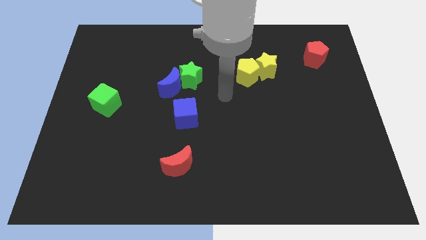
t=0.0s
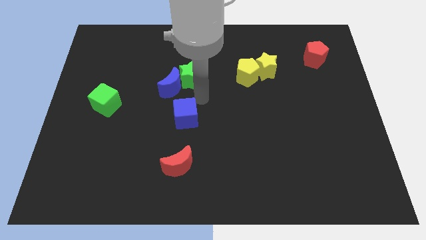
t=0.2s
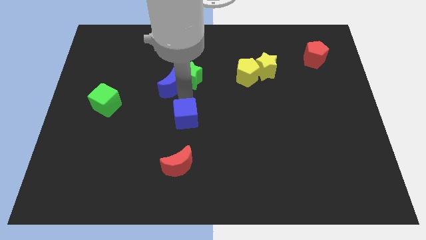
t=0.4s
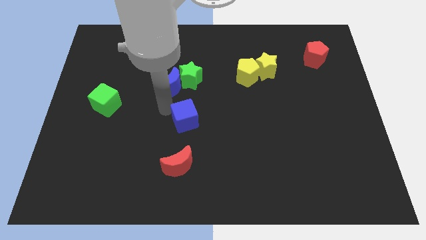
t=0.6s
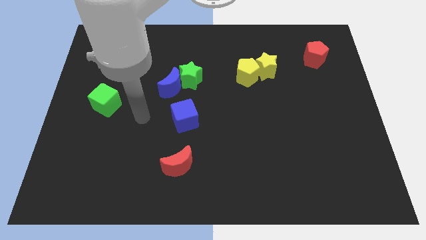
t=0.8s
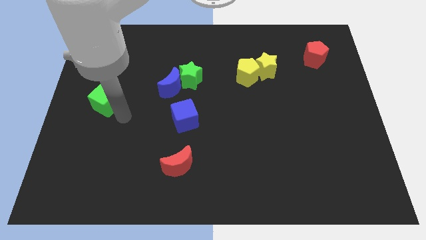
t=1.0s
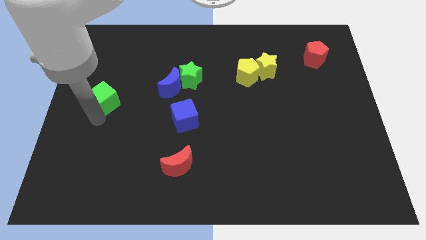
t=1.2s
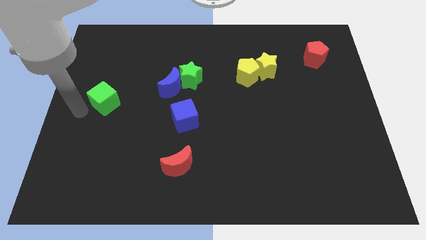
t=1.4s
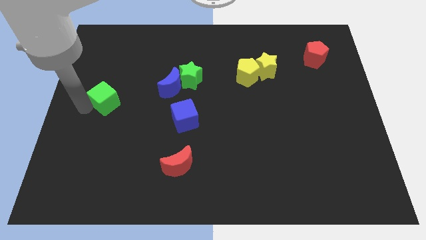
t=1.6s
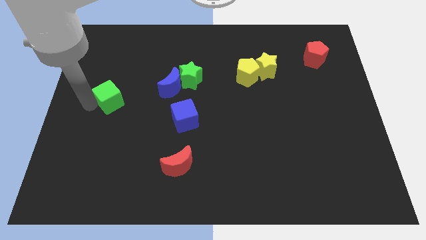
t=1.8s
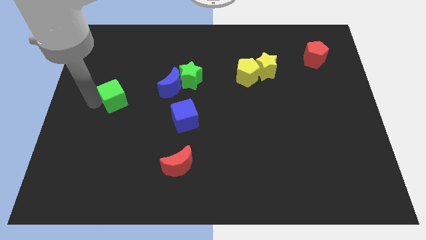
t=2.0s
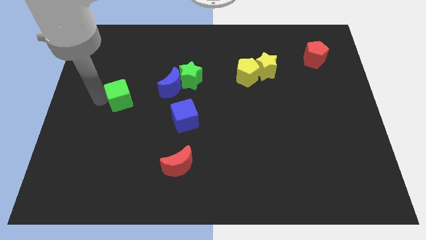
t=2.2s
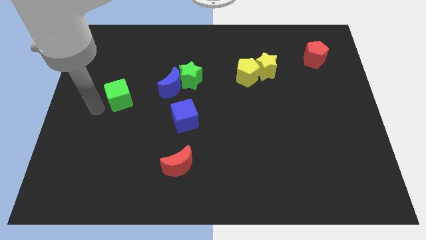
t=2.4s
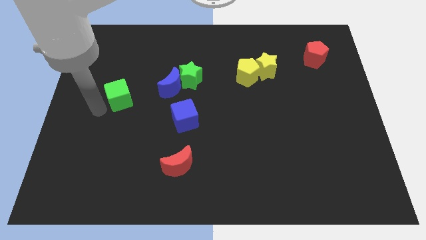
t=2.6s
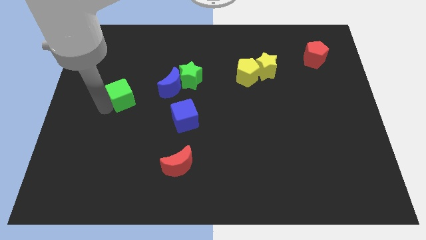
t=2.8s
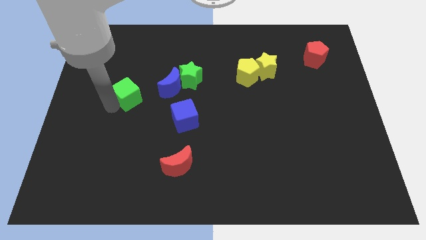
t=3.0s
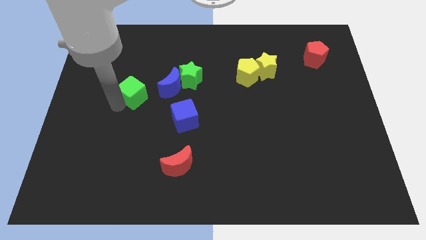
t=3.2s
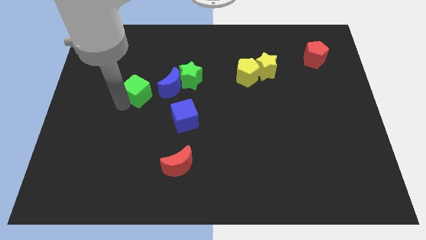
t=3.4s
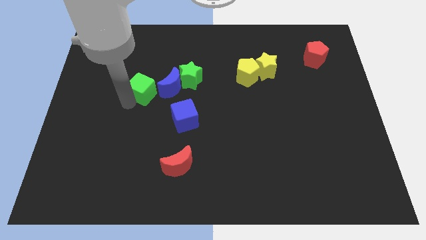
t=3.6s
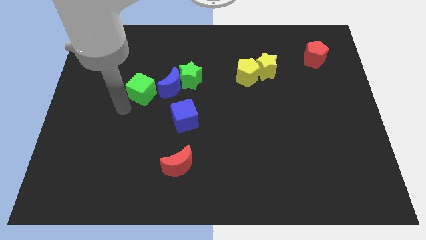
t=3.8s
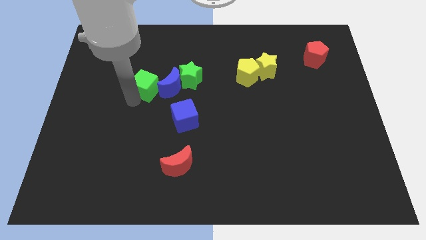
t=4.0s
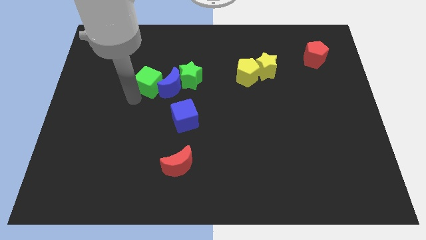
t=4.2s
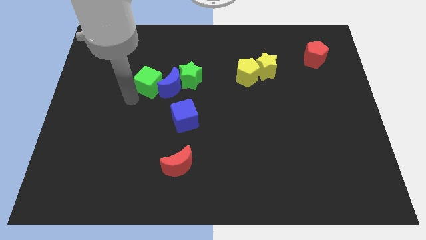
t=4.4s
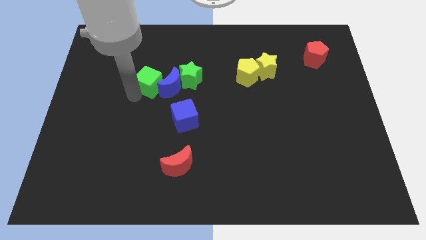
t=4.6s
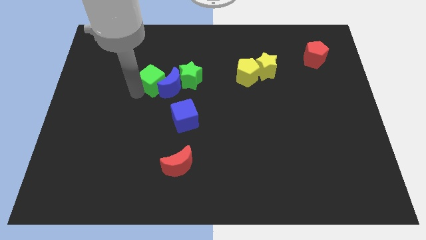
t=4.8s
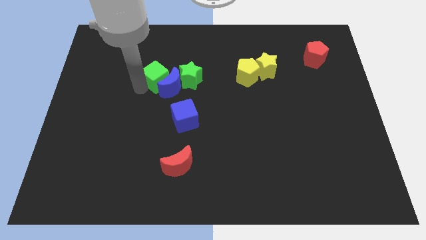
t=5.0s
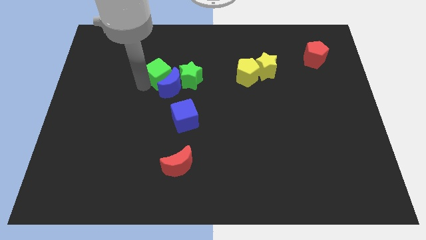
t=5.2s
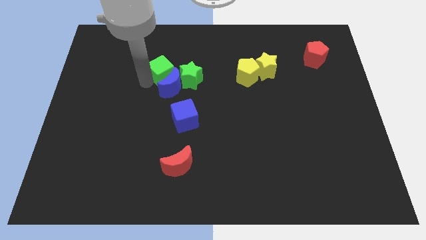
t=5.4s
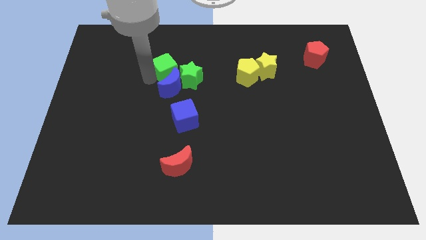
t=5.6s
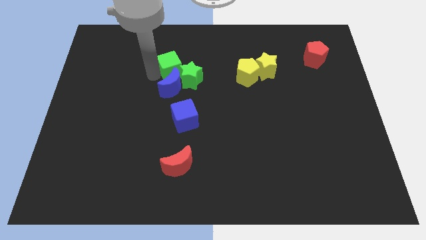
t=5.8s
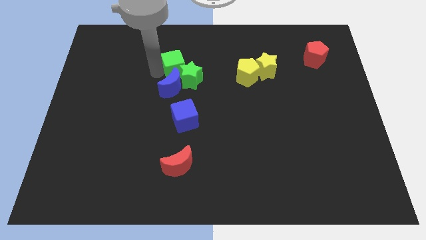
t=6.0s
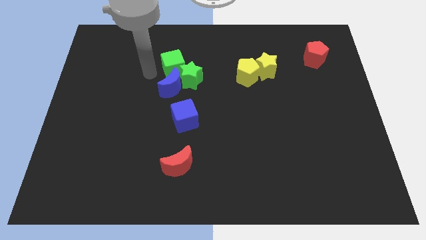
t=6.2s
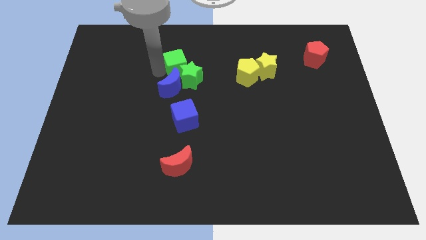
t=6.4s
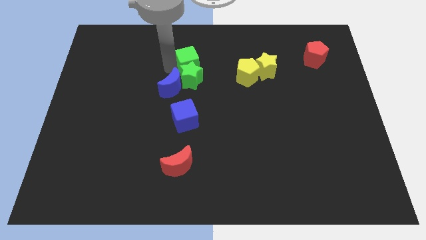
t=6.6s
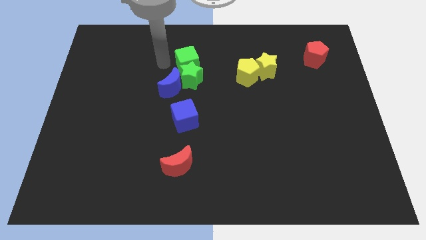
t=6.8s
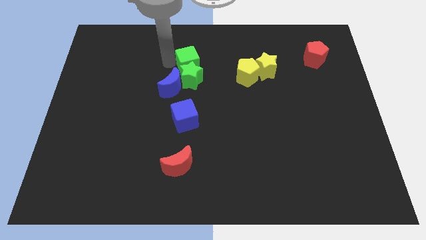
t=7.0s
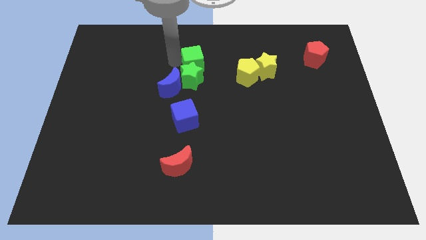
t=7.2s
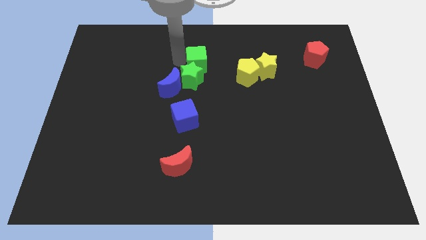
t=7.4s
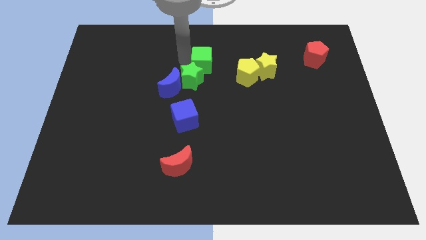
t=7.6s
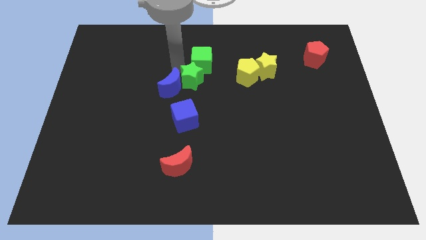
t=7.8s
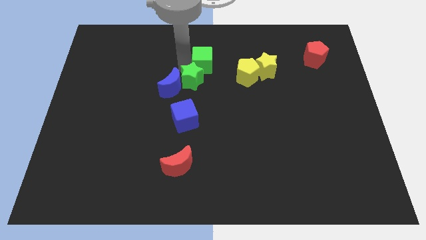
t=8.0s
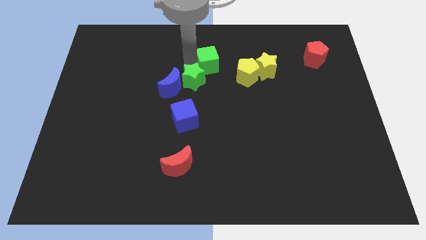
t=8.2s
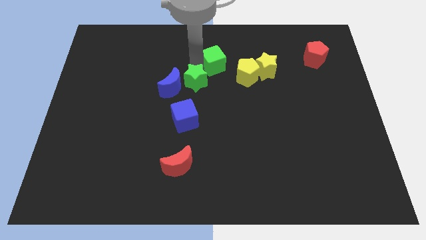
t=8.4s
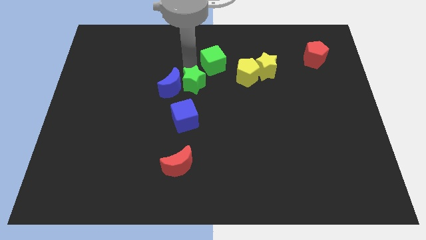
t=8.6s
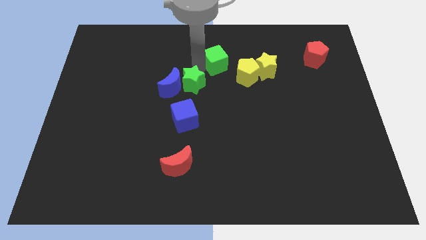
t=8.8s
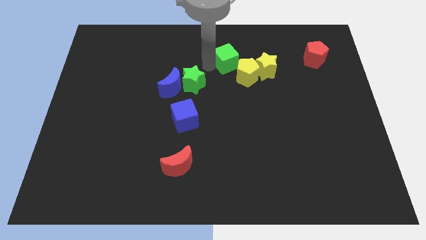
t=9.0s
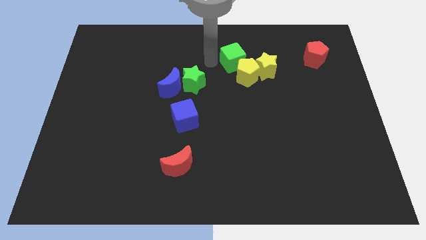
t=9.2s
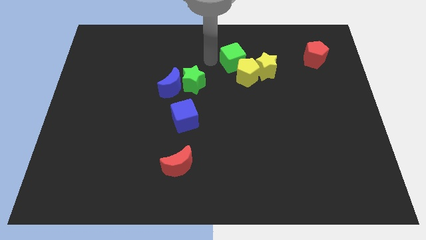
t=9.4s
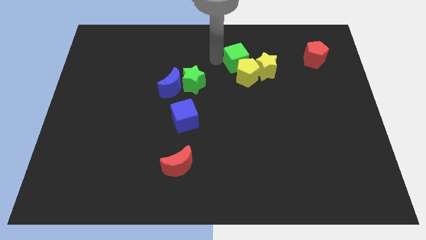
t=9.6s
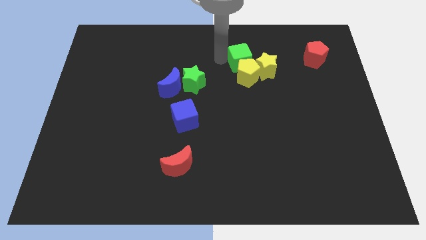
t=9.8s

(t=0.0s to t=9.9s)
push the green cube to the top right side of the yellow pentagon

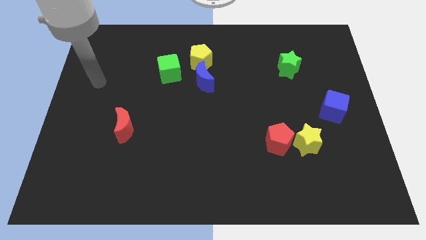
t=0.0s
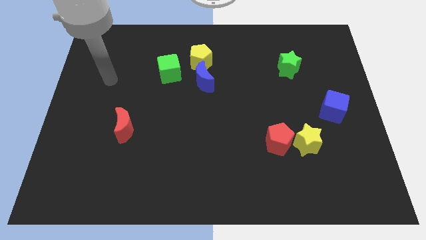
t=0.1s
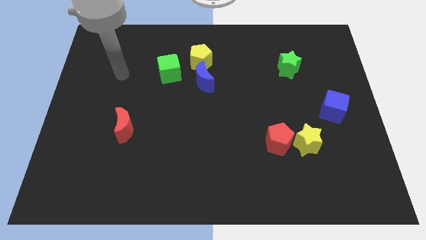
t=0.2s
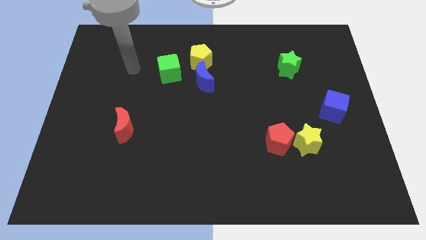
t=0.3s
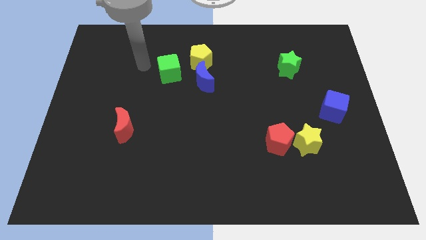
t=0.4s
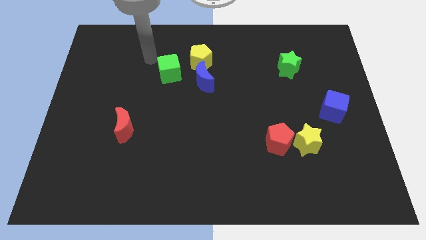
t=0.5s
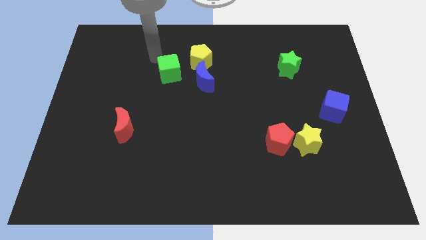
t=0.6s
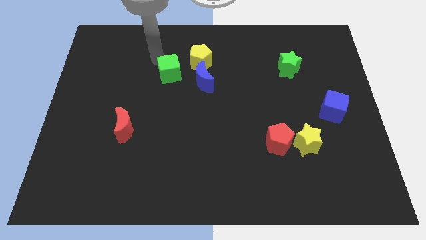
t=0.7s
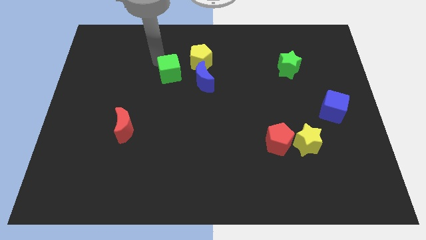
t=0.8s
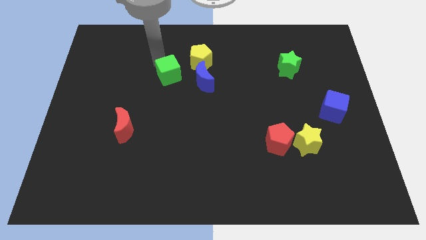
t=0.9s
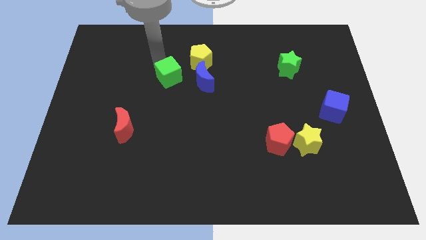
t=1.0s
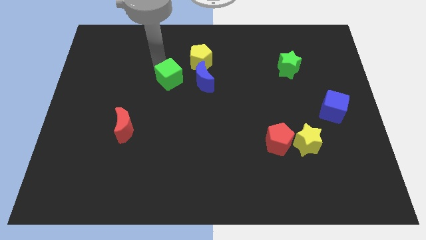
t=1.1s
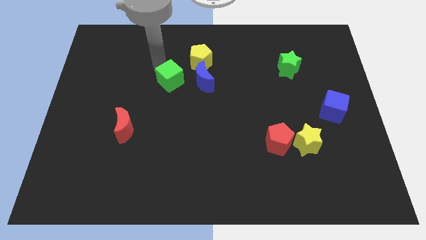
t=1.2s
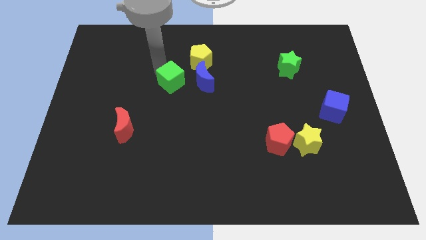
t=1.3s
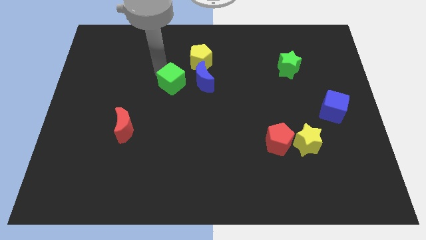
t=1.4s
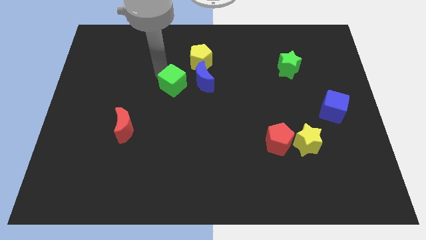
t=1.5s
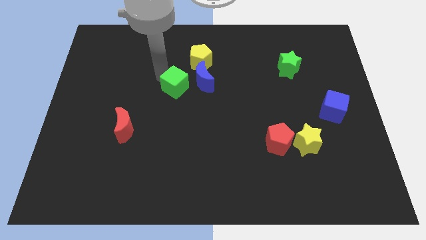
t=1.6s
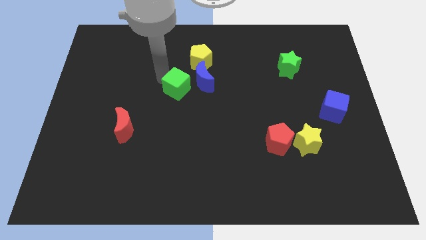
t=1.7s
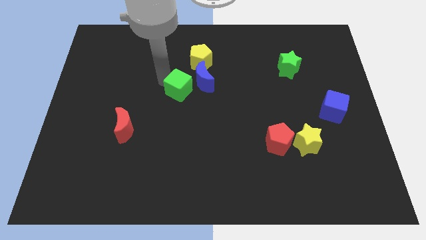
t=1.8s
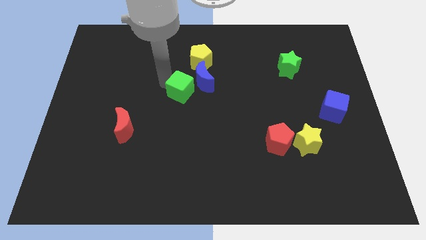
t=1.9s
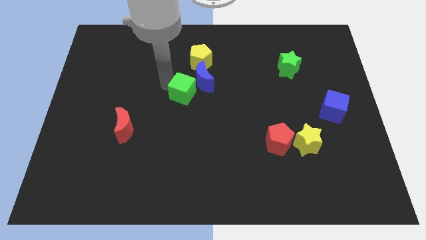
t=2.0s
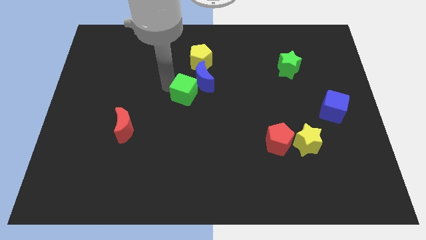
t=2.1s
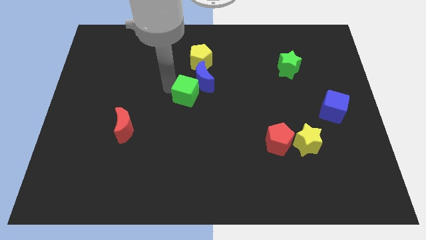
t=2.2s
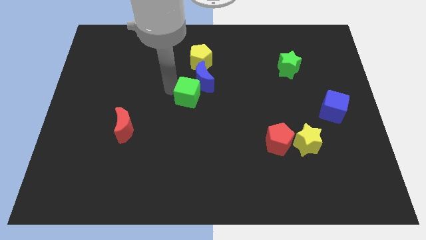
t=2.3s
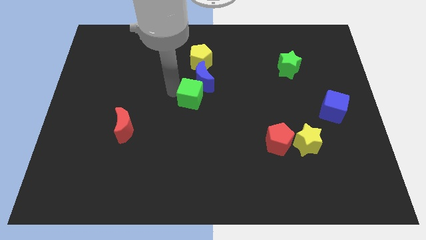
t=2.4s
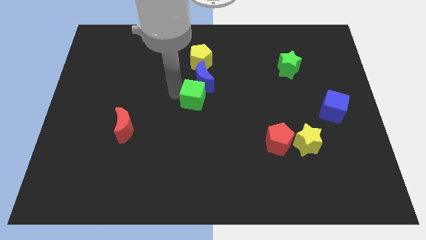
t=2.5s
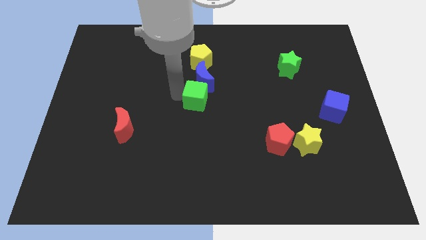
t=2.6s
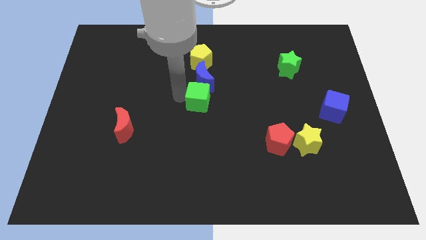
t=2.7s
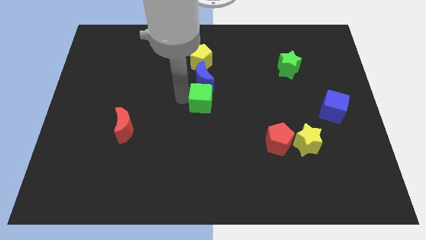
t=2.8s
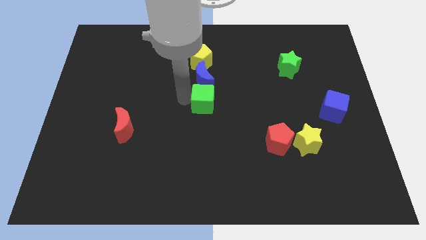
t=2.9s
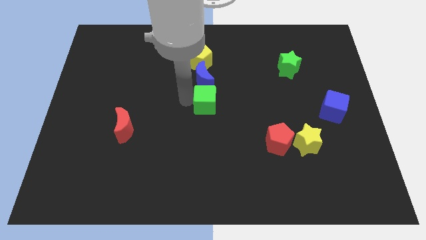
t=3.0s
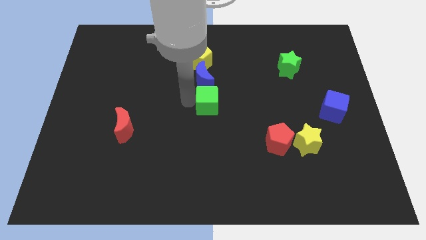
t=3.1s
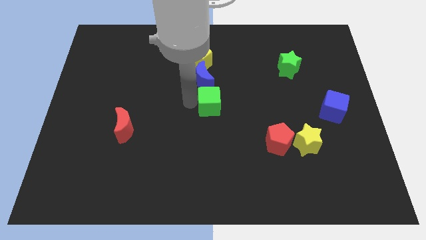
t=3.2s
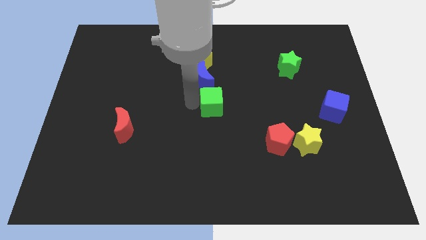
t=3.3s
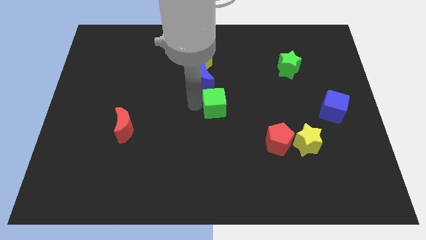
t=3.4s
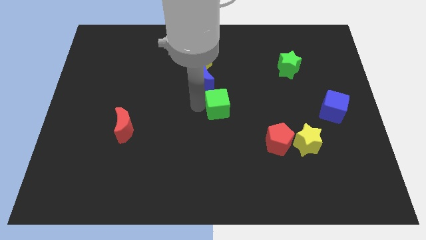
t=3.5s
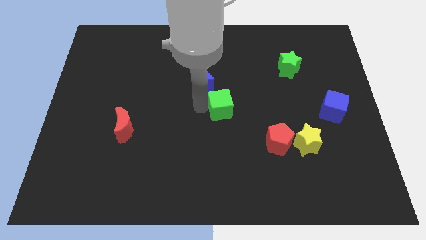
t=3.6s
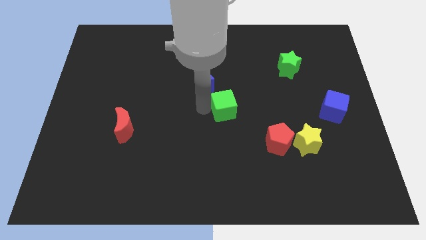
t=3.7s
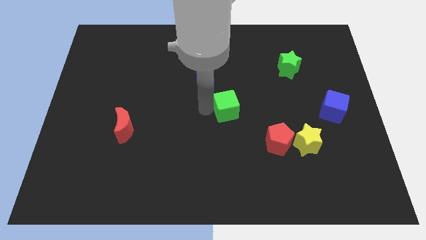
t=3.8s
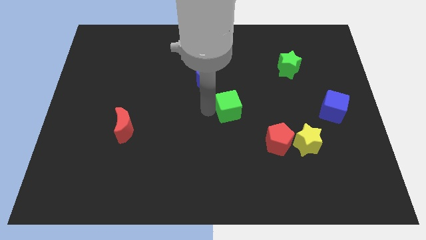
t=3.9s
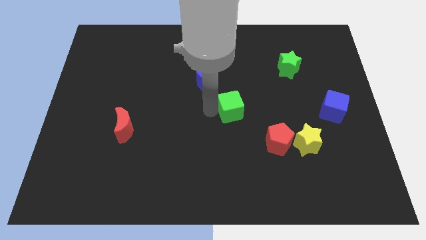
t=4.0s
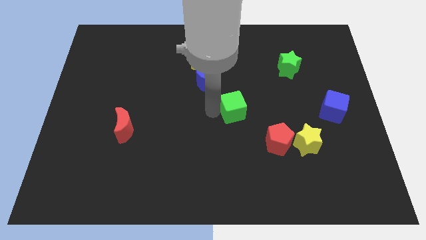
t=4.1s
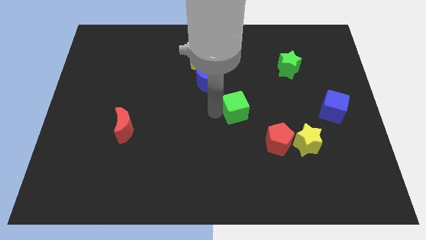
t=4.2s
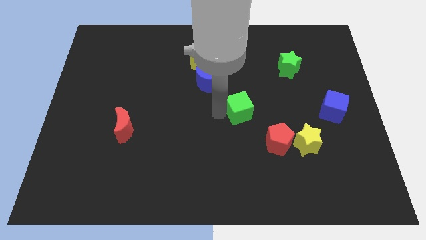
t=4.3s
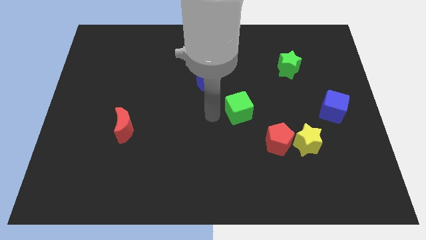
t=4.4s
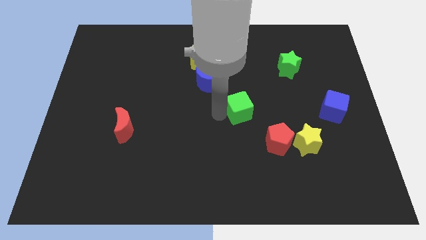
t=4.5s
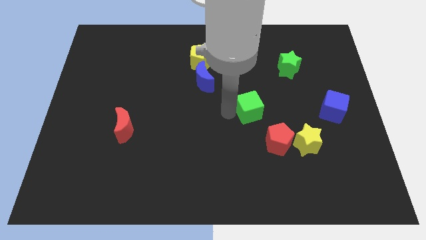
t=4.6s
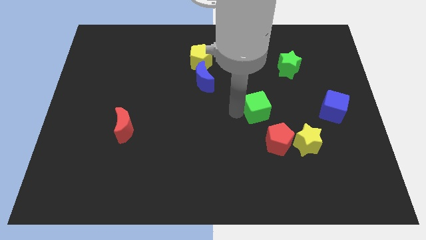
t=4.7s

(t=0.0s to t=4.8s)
put the green cube to the top side of the red pentagon
